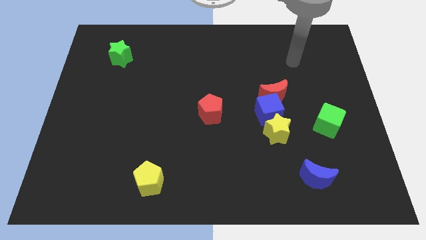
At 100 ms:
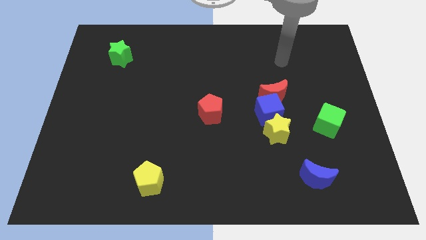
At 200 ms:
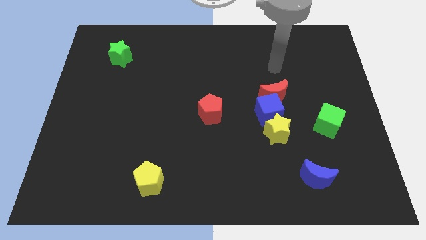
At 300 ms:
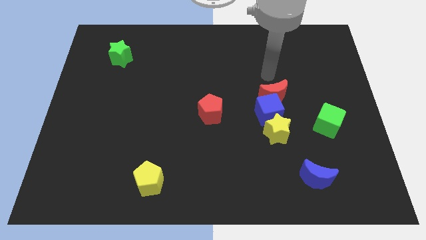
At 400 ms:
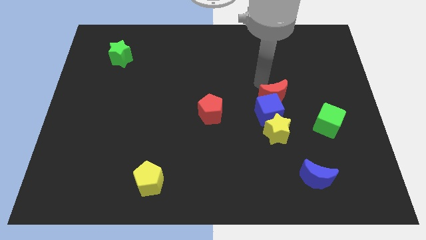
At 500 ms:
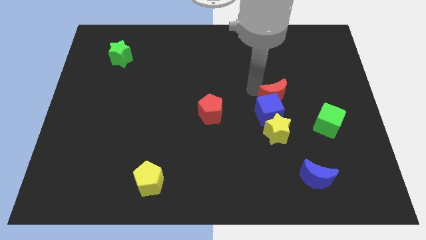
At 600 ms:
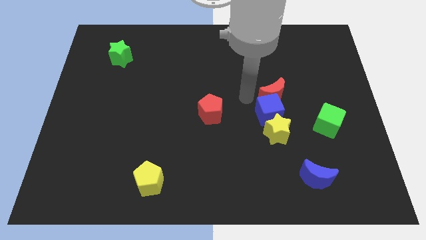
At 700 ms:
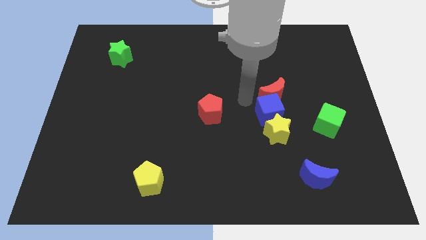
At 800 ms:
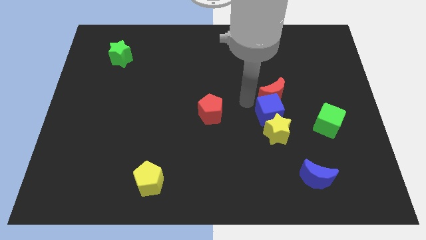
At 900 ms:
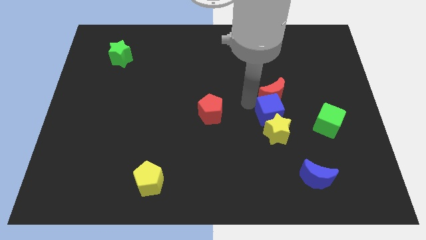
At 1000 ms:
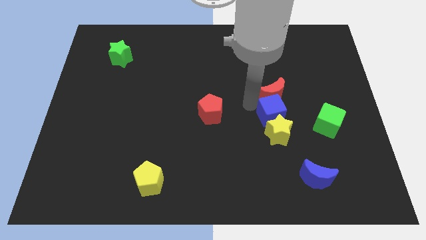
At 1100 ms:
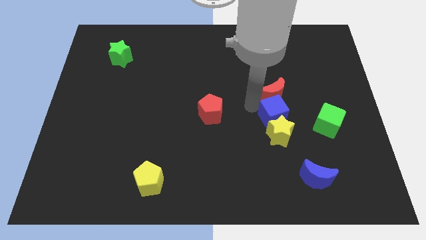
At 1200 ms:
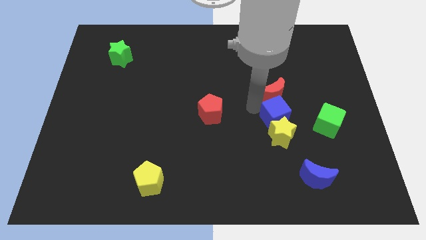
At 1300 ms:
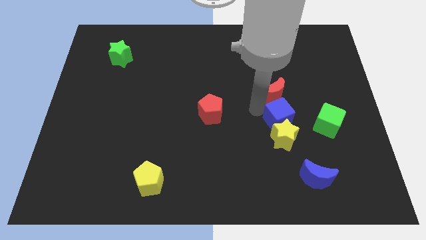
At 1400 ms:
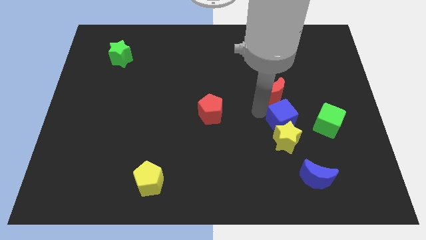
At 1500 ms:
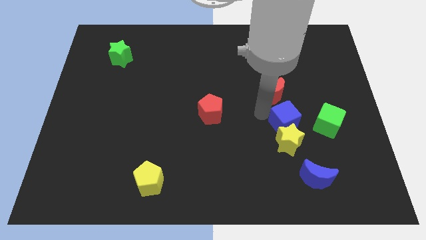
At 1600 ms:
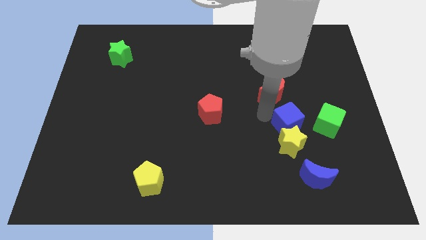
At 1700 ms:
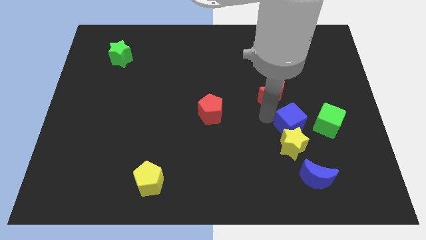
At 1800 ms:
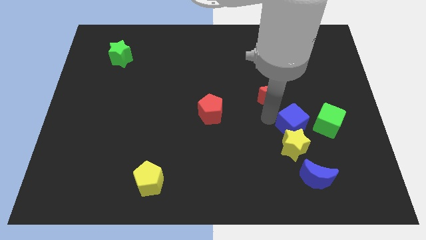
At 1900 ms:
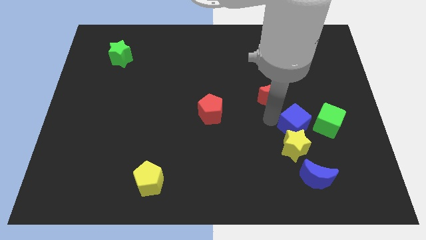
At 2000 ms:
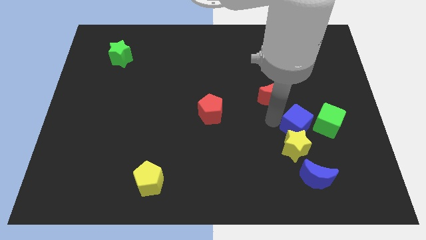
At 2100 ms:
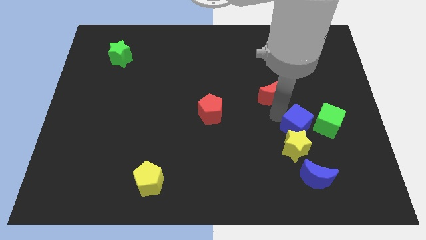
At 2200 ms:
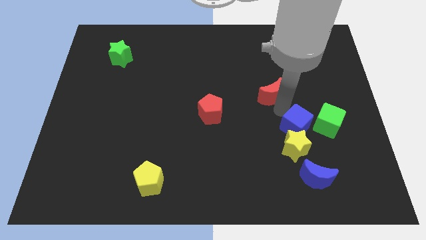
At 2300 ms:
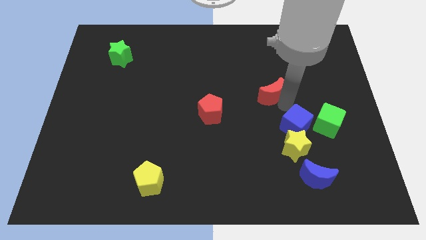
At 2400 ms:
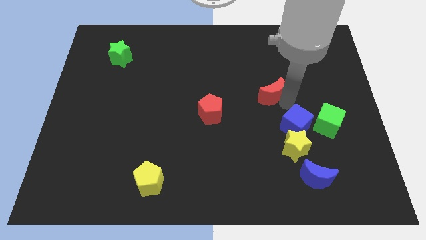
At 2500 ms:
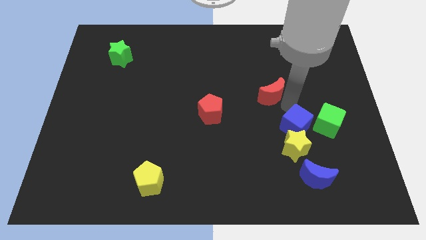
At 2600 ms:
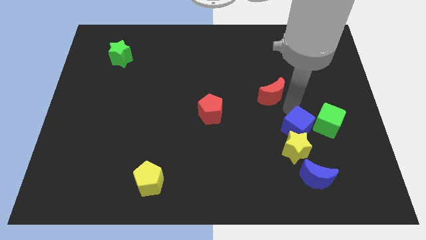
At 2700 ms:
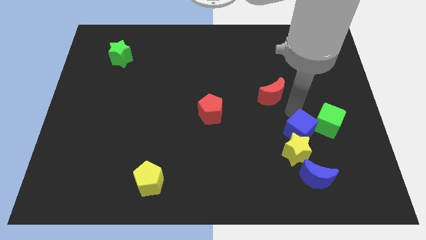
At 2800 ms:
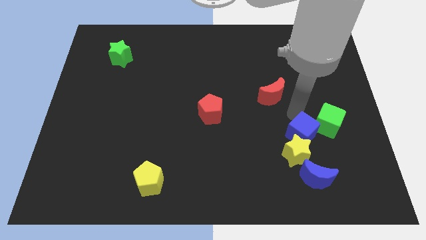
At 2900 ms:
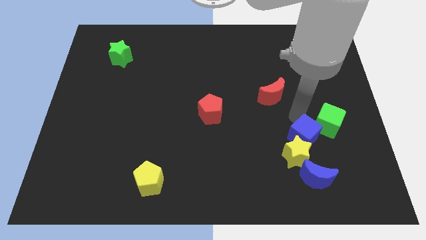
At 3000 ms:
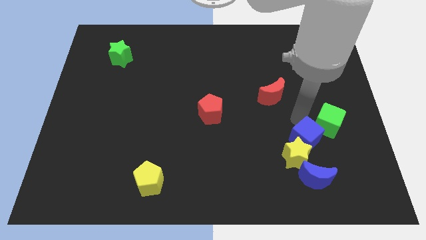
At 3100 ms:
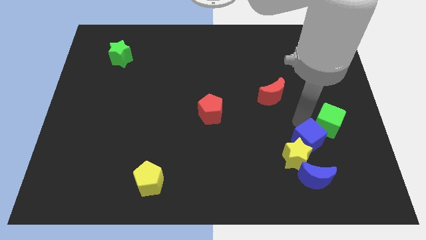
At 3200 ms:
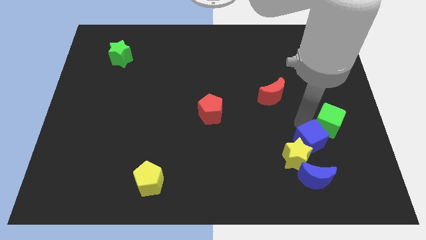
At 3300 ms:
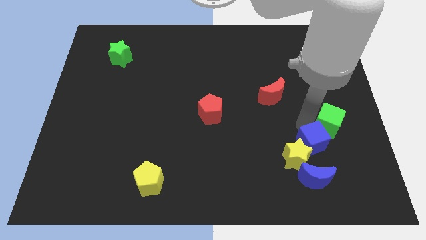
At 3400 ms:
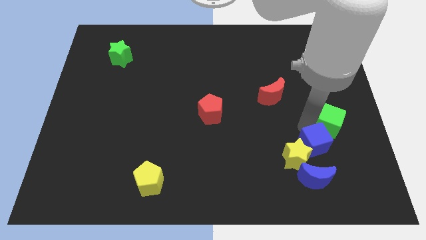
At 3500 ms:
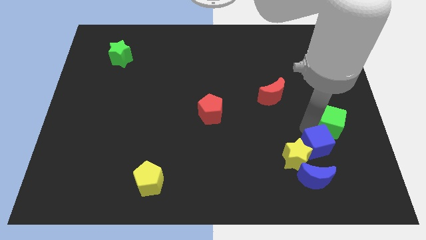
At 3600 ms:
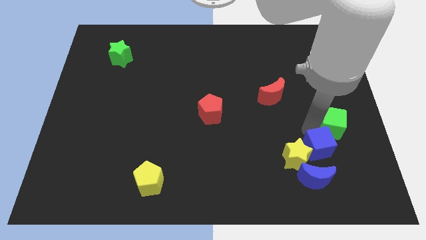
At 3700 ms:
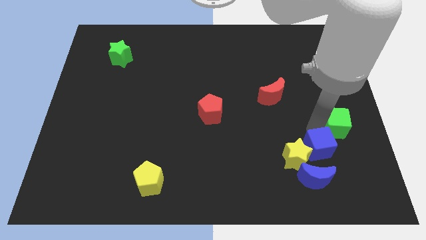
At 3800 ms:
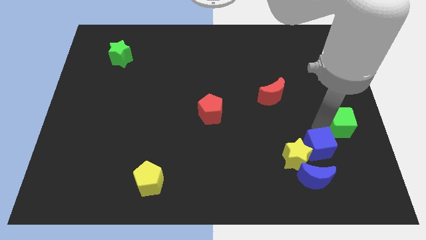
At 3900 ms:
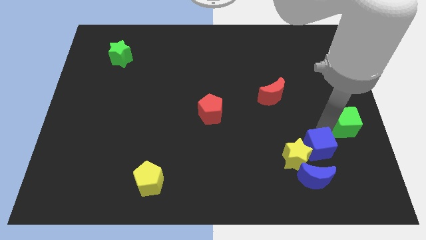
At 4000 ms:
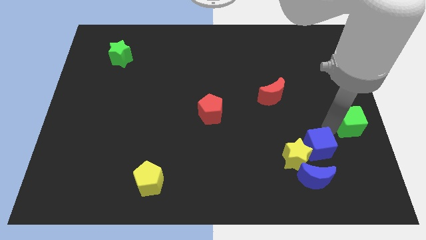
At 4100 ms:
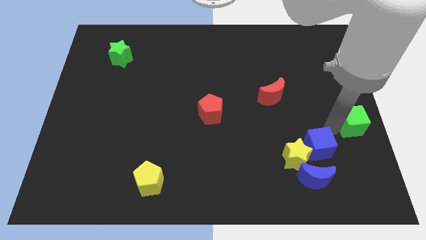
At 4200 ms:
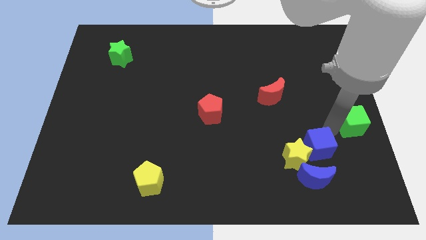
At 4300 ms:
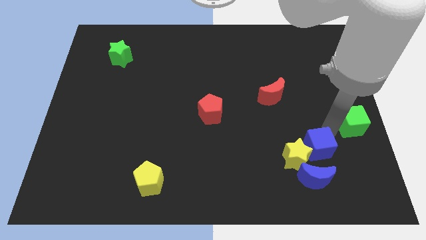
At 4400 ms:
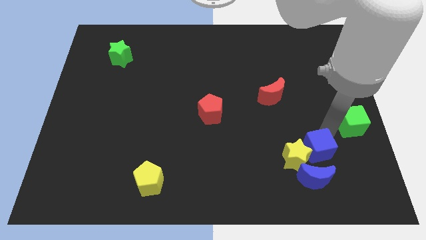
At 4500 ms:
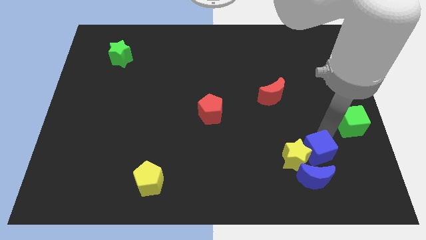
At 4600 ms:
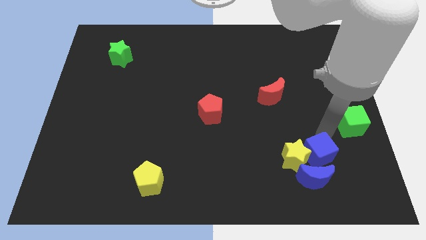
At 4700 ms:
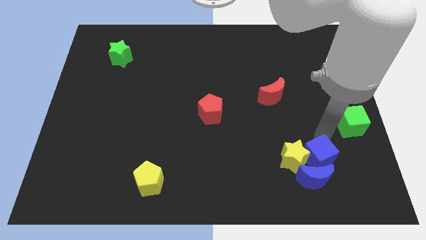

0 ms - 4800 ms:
push the blue cube to the blue moon

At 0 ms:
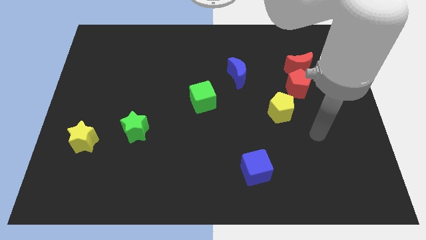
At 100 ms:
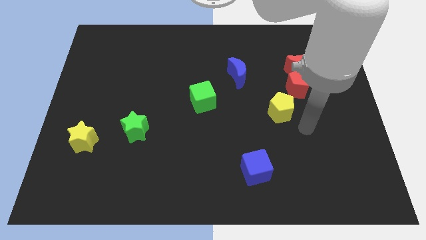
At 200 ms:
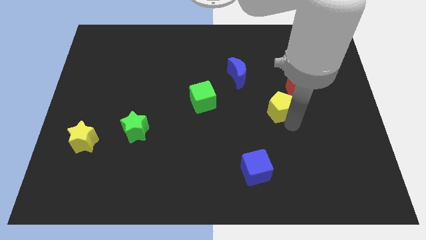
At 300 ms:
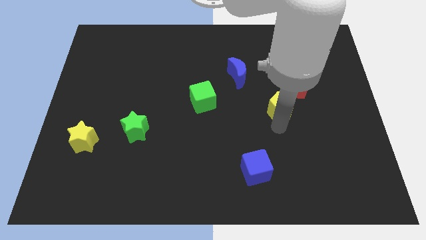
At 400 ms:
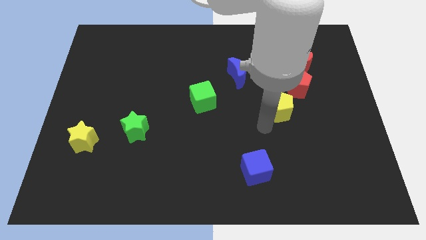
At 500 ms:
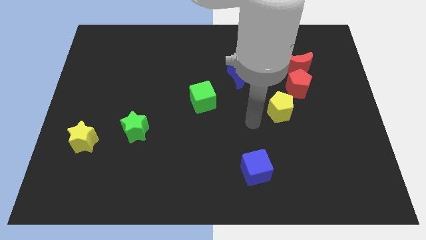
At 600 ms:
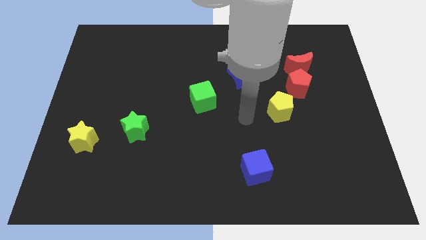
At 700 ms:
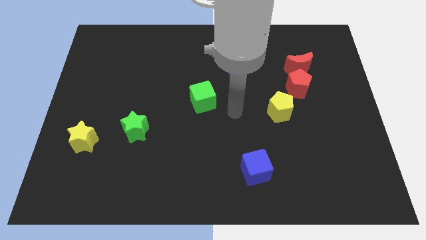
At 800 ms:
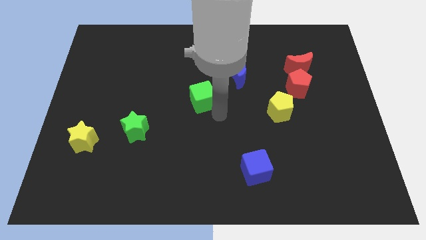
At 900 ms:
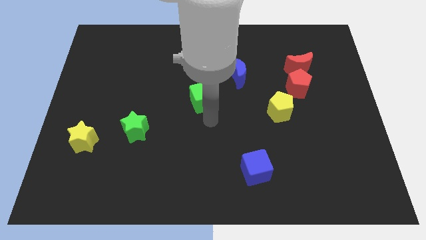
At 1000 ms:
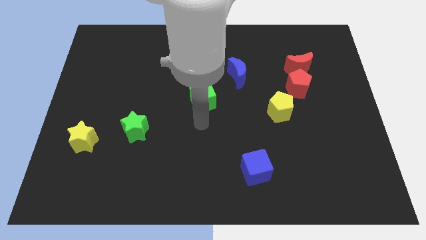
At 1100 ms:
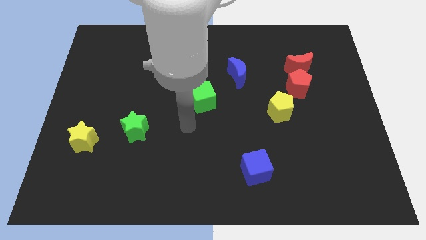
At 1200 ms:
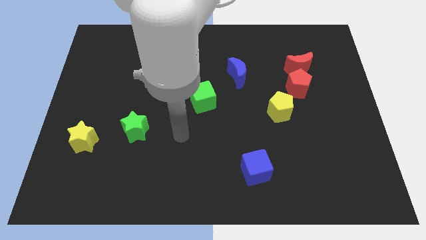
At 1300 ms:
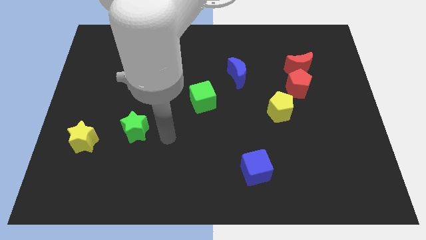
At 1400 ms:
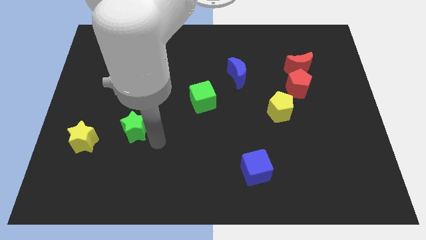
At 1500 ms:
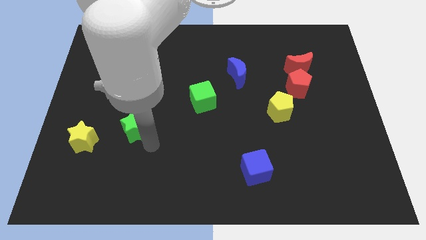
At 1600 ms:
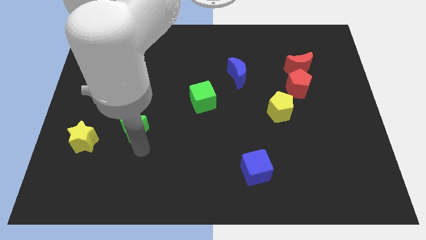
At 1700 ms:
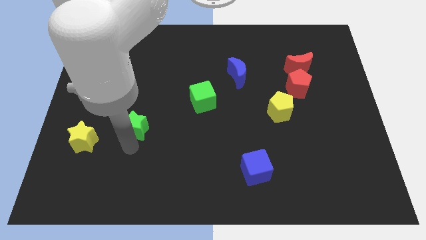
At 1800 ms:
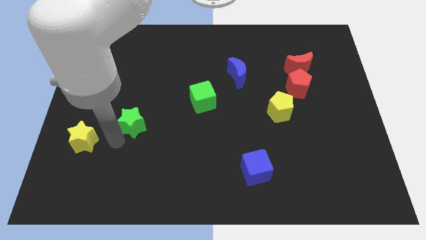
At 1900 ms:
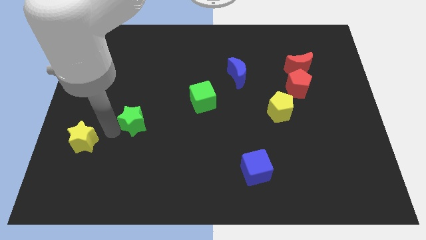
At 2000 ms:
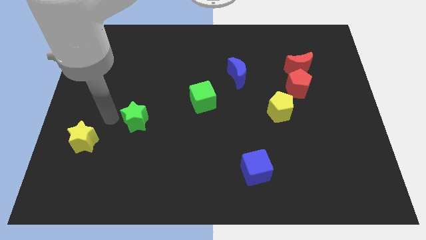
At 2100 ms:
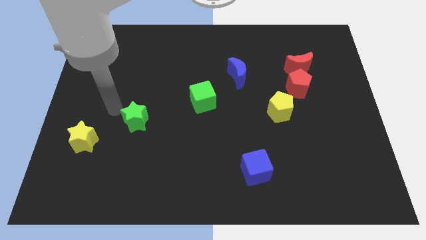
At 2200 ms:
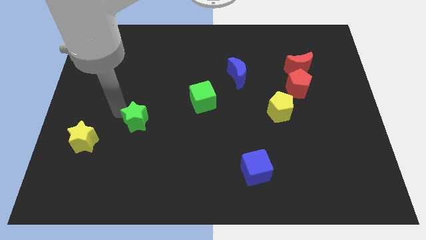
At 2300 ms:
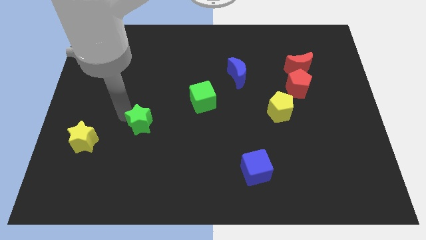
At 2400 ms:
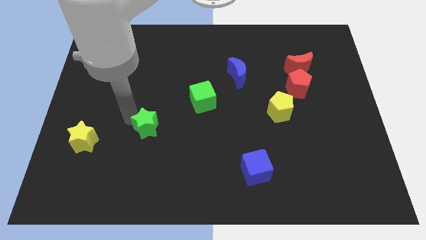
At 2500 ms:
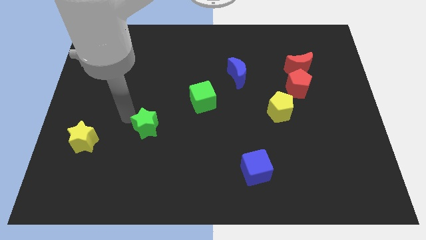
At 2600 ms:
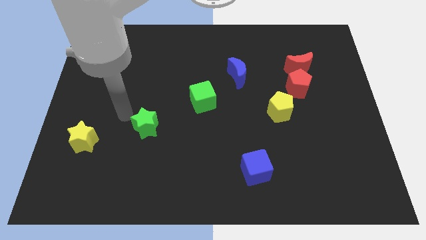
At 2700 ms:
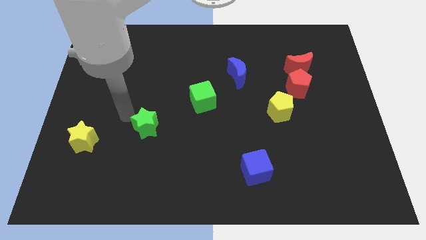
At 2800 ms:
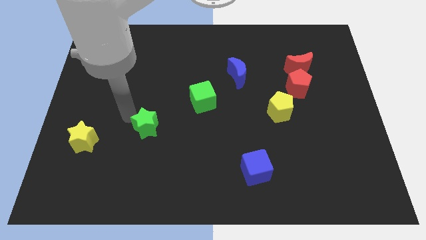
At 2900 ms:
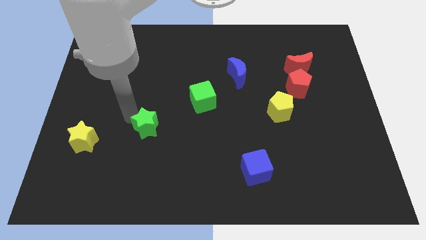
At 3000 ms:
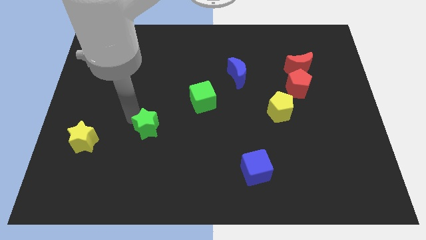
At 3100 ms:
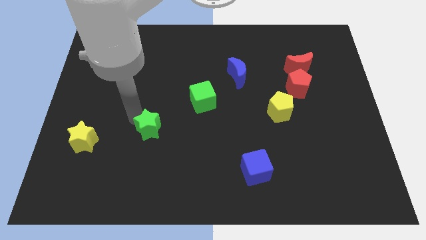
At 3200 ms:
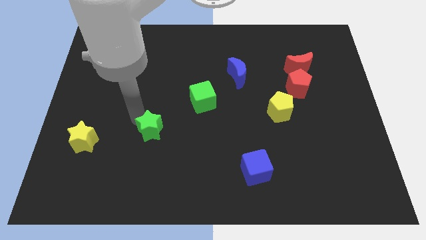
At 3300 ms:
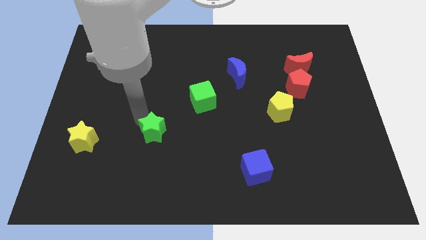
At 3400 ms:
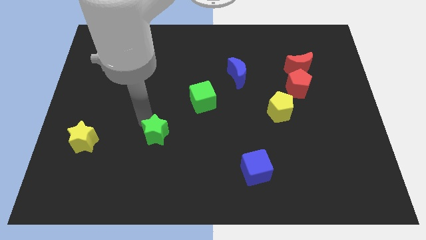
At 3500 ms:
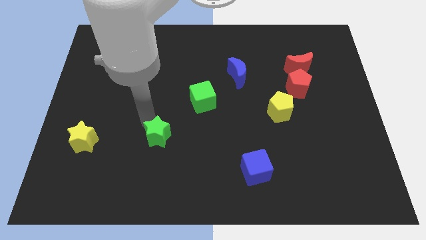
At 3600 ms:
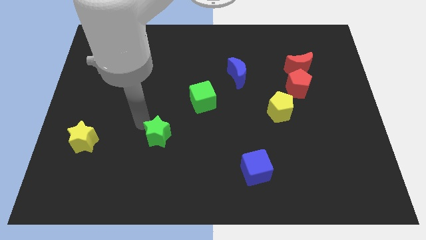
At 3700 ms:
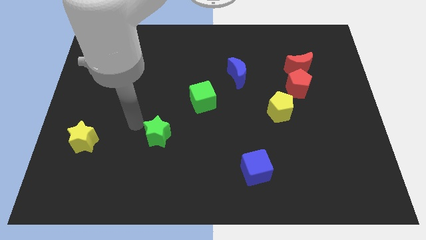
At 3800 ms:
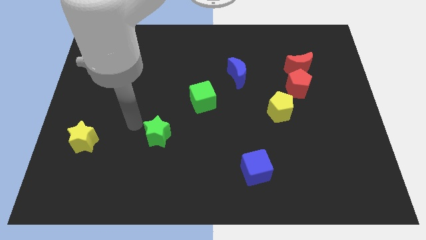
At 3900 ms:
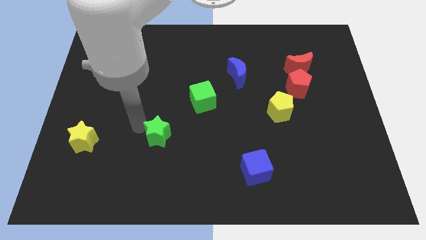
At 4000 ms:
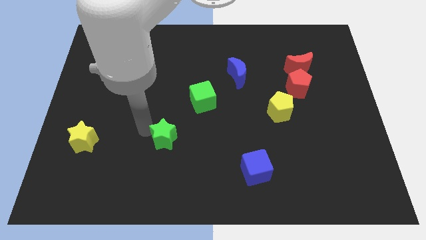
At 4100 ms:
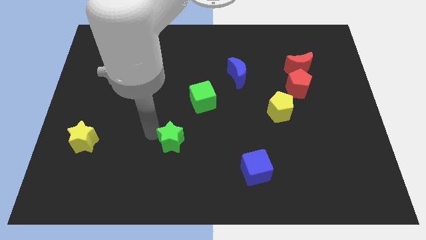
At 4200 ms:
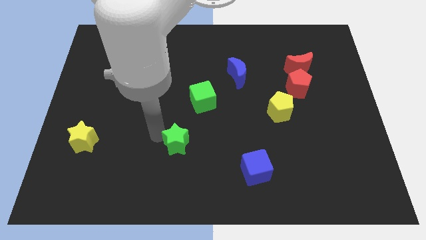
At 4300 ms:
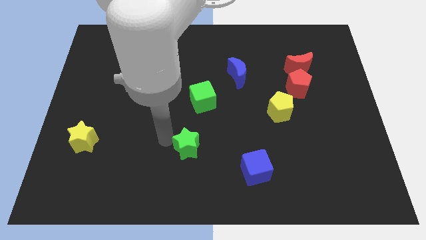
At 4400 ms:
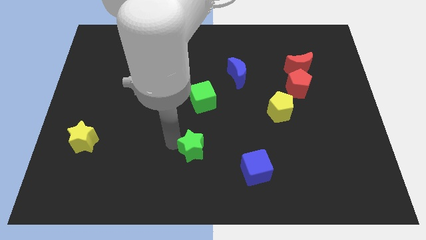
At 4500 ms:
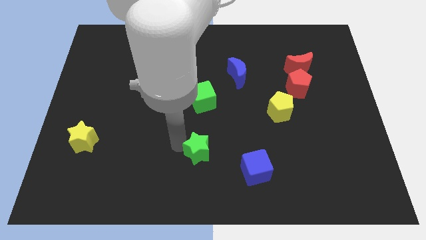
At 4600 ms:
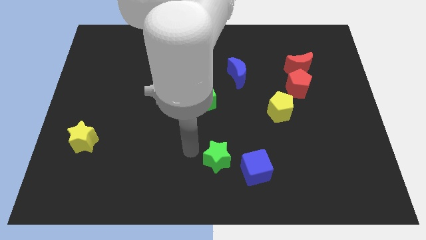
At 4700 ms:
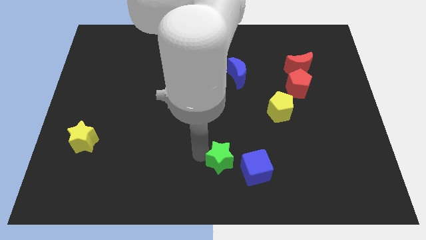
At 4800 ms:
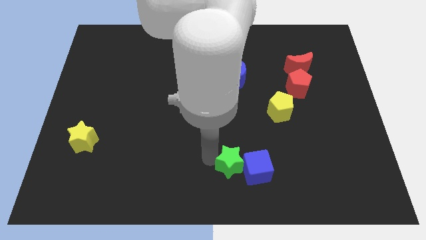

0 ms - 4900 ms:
move the green star to the blue cube
